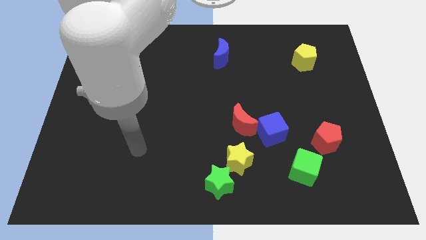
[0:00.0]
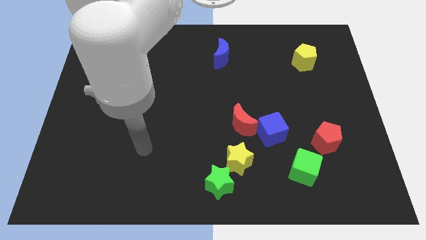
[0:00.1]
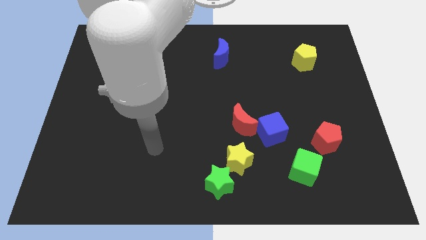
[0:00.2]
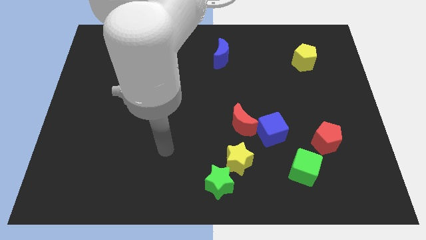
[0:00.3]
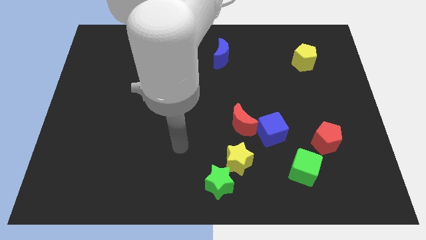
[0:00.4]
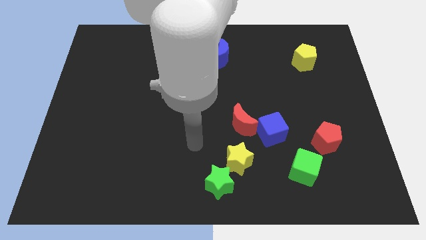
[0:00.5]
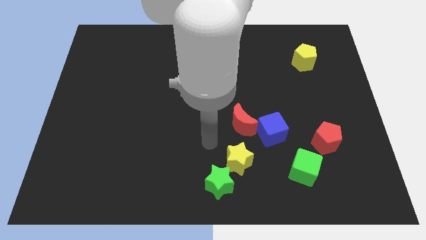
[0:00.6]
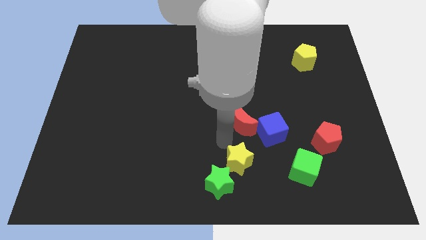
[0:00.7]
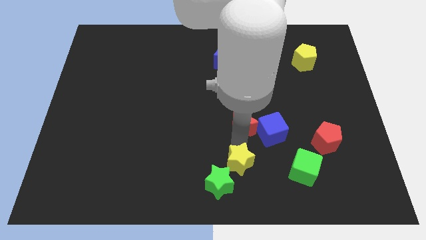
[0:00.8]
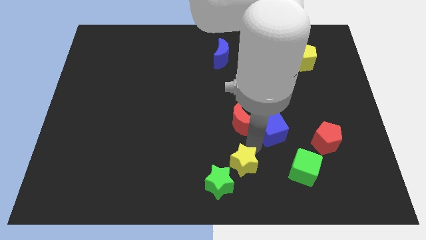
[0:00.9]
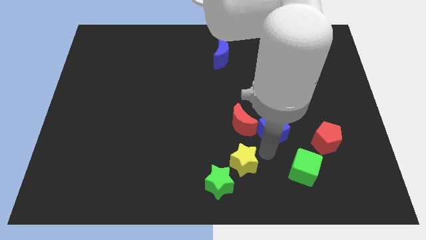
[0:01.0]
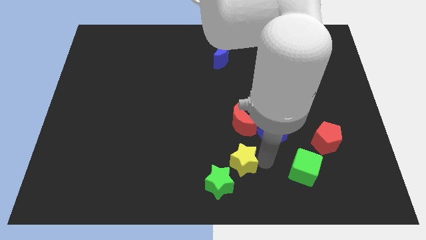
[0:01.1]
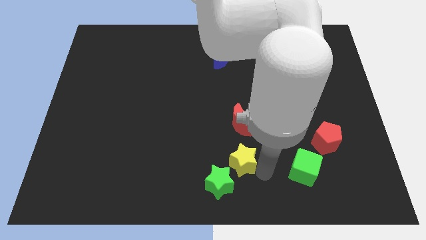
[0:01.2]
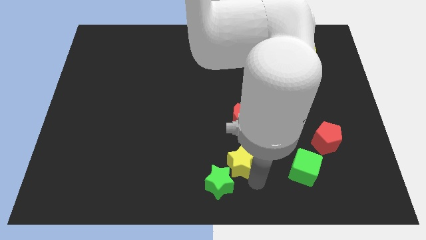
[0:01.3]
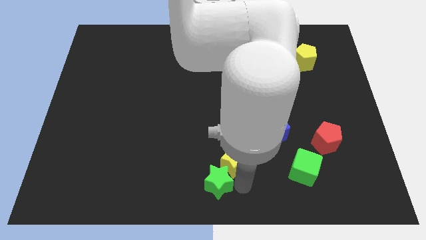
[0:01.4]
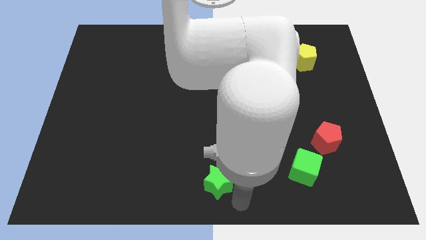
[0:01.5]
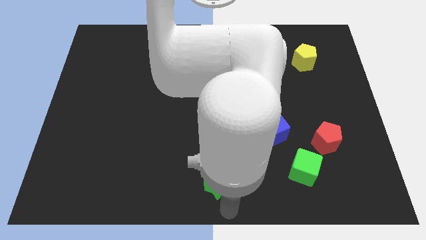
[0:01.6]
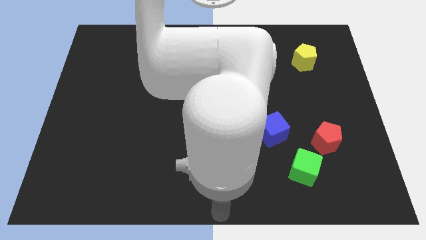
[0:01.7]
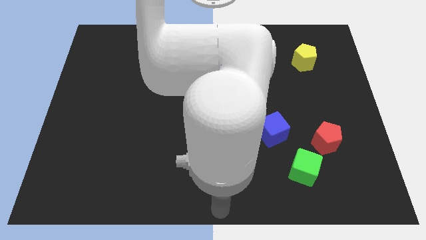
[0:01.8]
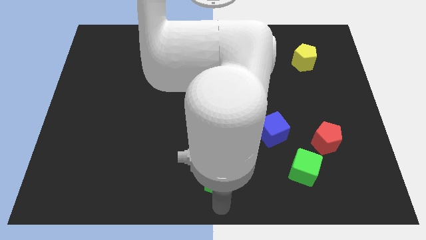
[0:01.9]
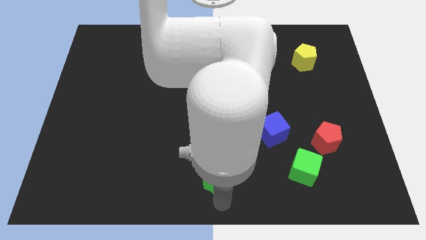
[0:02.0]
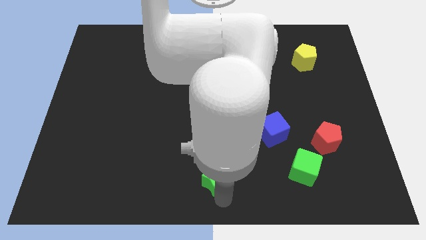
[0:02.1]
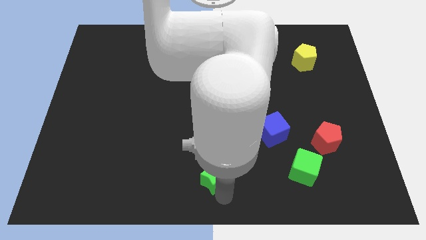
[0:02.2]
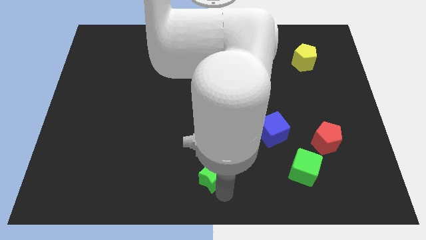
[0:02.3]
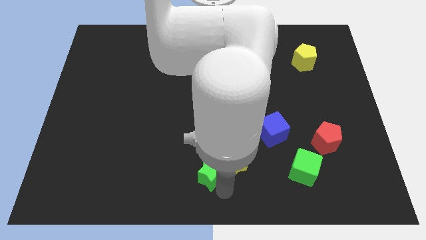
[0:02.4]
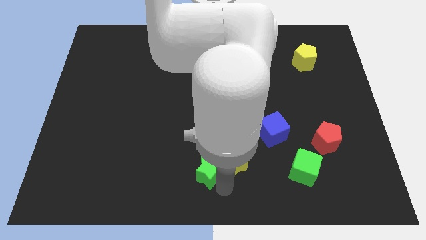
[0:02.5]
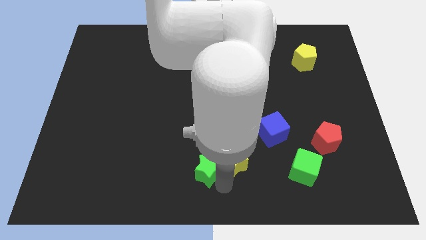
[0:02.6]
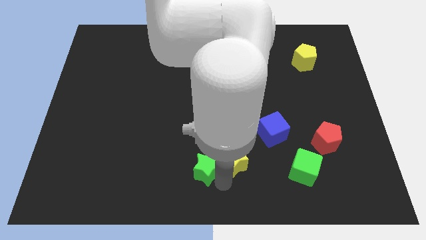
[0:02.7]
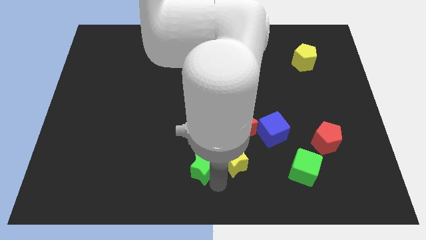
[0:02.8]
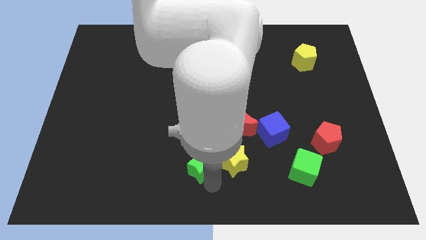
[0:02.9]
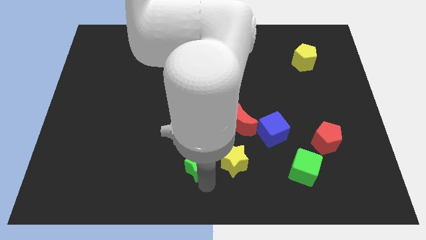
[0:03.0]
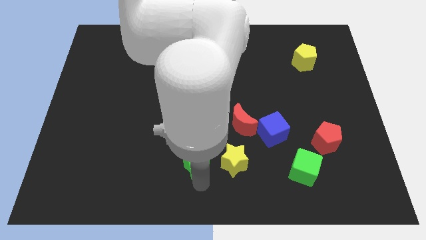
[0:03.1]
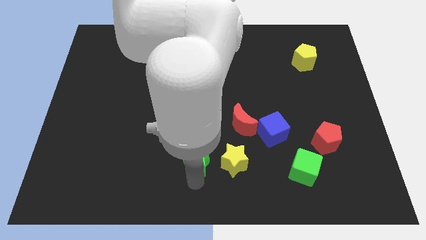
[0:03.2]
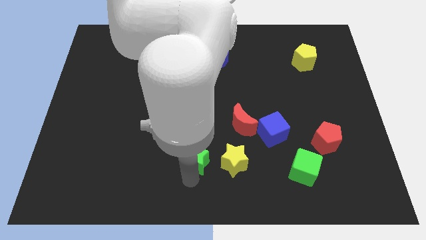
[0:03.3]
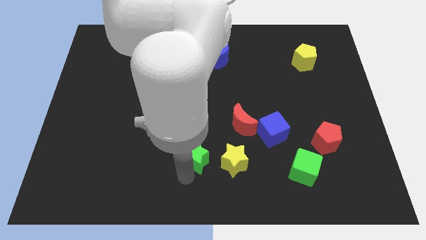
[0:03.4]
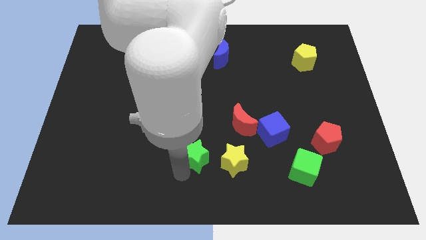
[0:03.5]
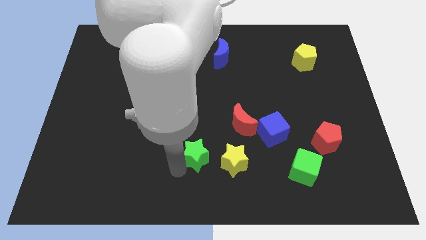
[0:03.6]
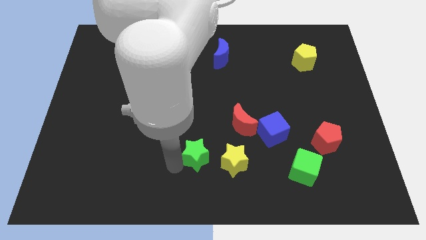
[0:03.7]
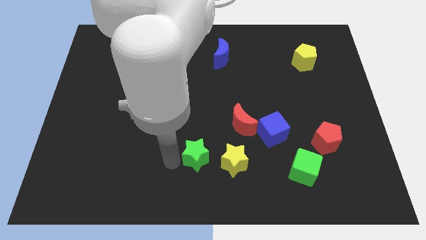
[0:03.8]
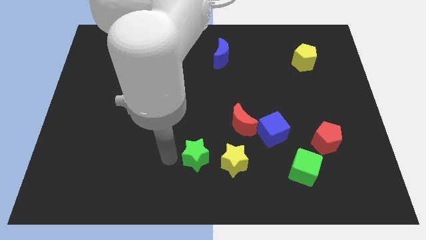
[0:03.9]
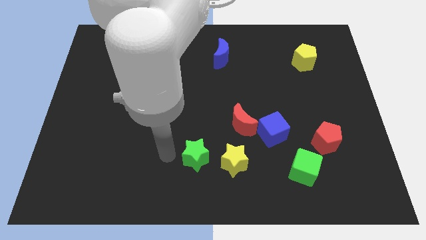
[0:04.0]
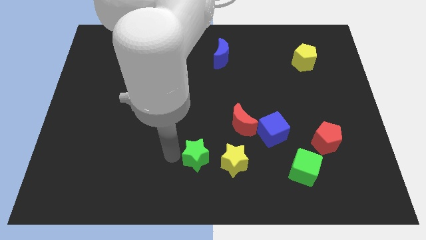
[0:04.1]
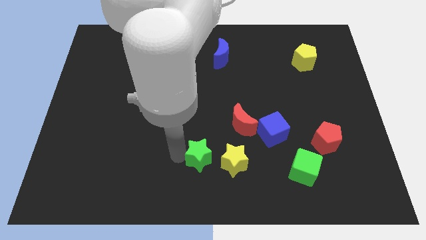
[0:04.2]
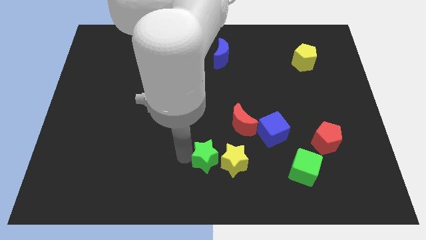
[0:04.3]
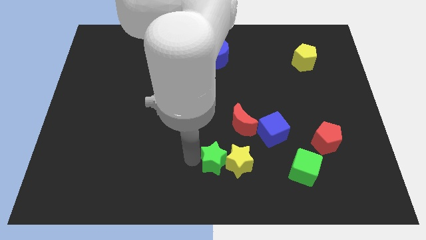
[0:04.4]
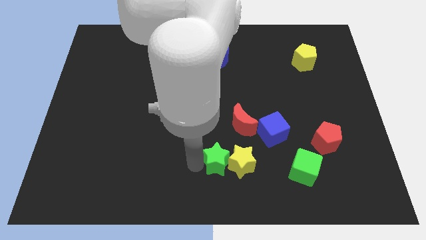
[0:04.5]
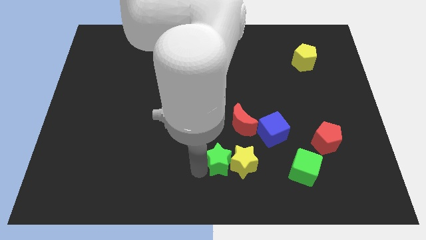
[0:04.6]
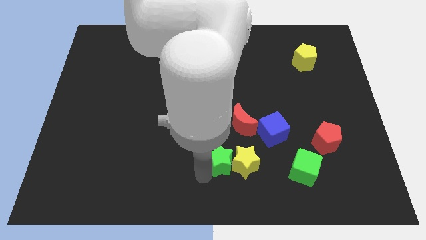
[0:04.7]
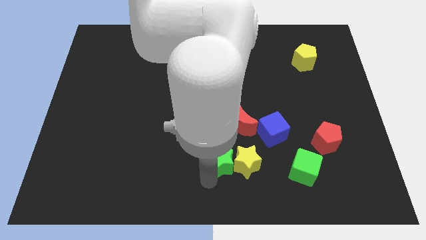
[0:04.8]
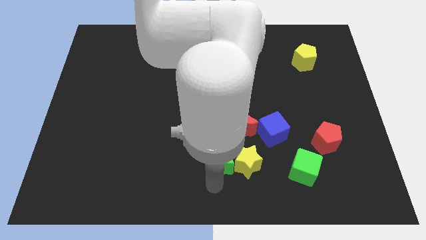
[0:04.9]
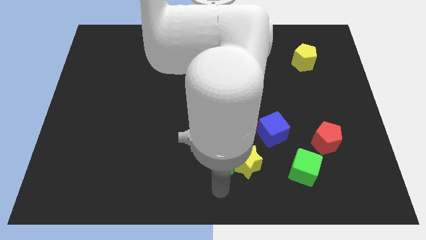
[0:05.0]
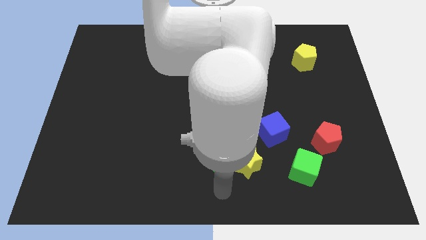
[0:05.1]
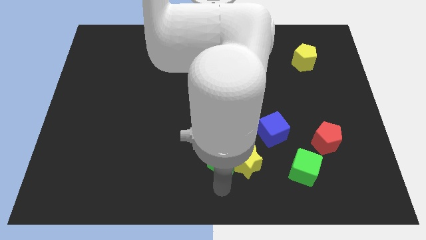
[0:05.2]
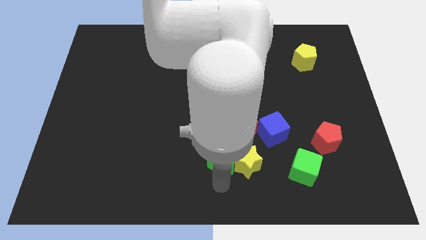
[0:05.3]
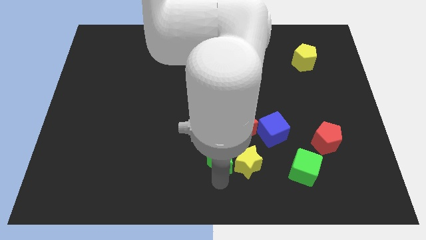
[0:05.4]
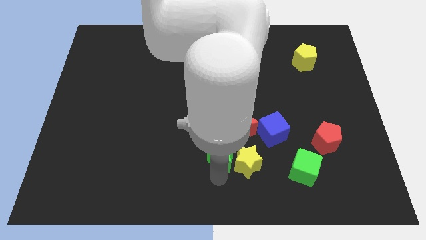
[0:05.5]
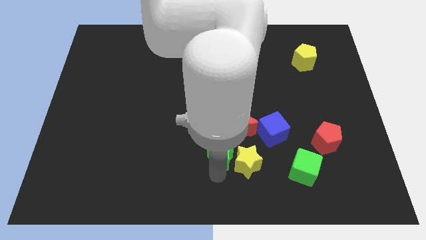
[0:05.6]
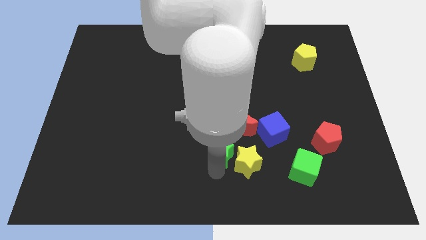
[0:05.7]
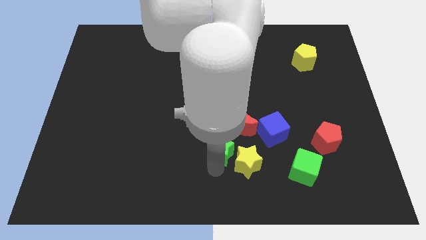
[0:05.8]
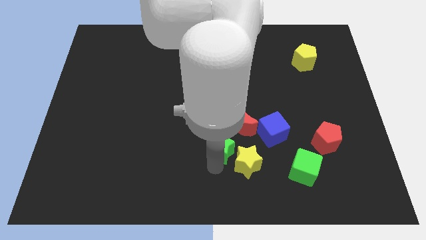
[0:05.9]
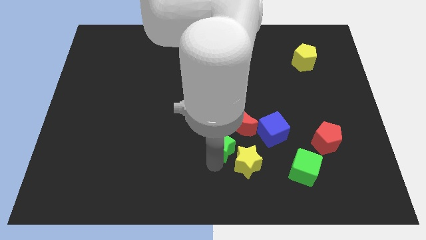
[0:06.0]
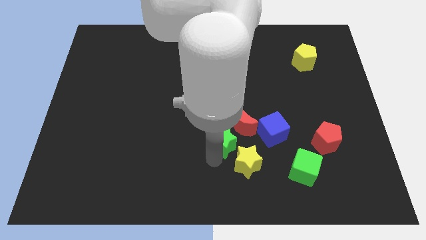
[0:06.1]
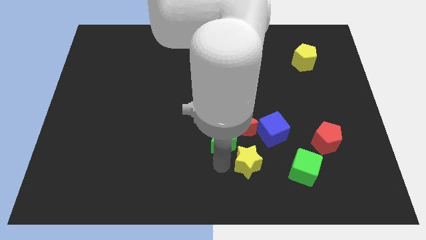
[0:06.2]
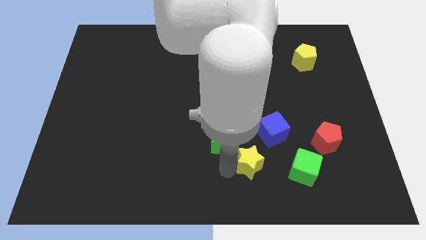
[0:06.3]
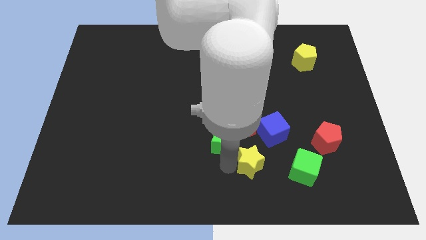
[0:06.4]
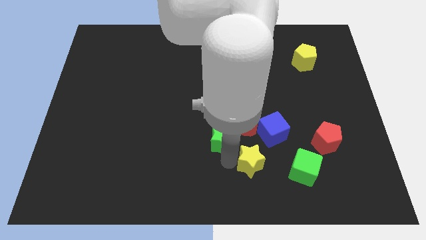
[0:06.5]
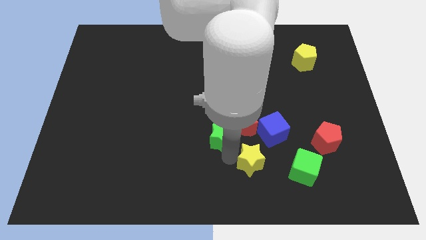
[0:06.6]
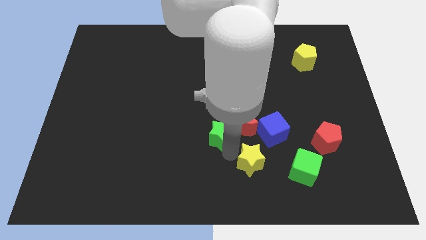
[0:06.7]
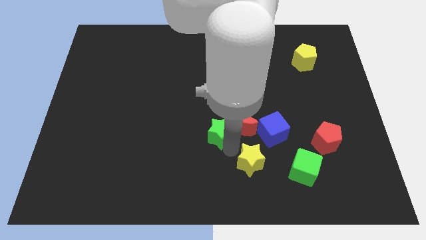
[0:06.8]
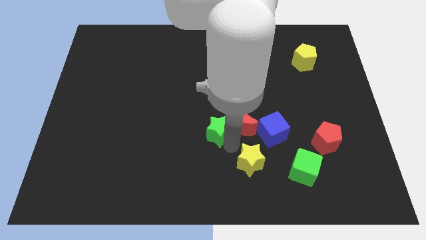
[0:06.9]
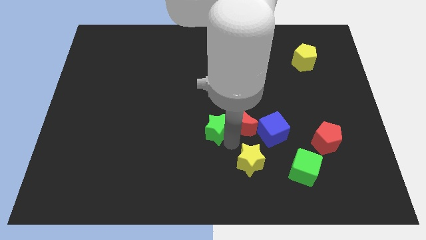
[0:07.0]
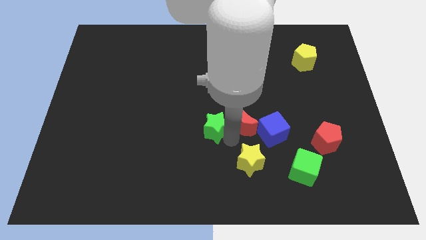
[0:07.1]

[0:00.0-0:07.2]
move the green star diagonally up and to the left of the red moon
